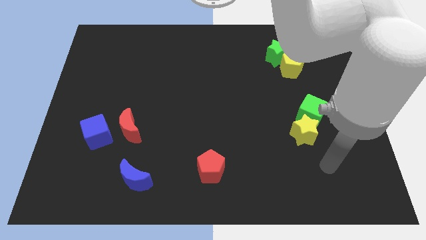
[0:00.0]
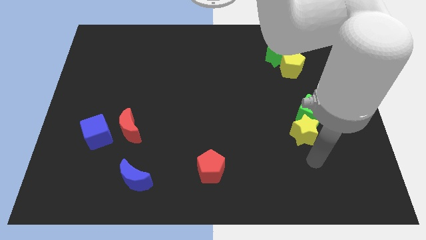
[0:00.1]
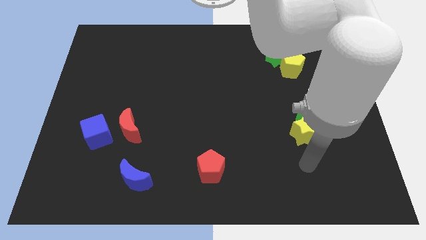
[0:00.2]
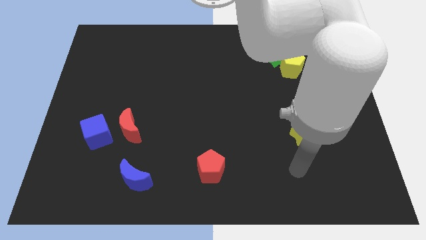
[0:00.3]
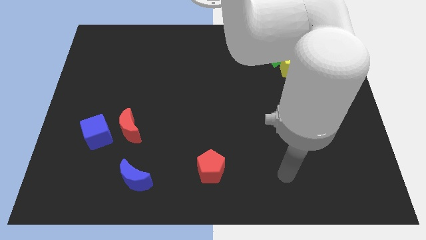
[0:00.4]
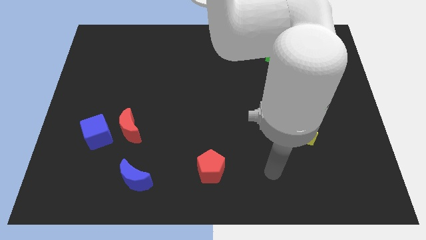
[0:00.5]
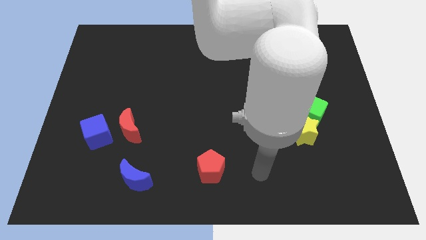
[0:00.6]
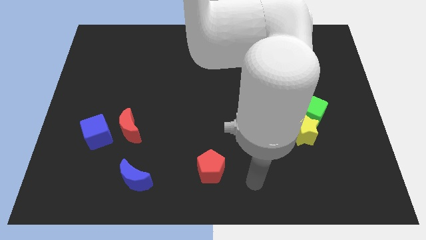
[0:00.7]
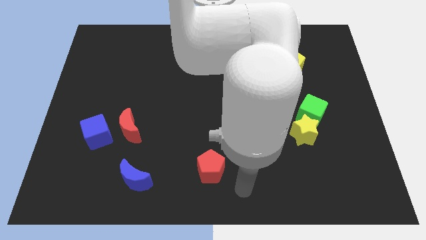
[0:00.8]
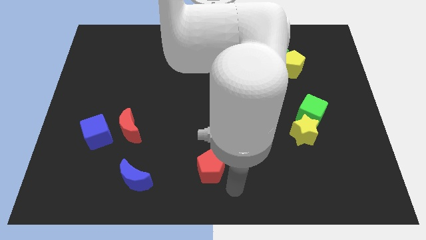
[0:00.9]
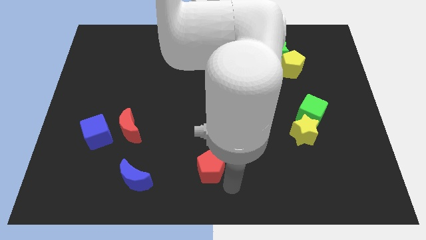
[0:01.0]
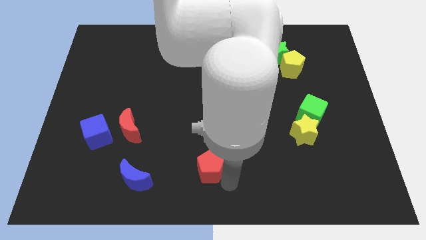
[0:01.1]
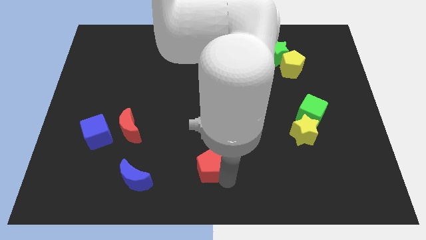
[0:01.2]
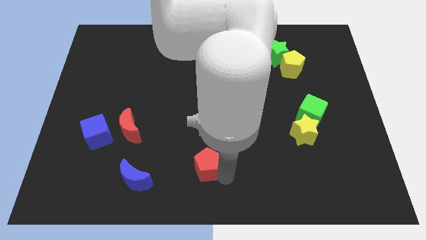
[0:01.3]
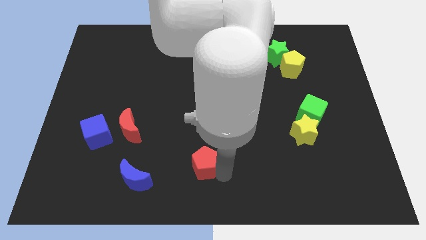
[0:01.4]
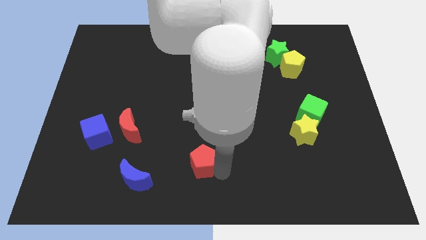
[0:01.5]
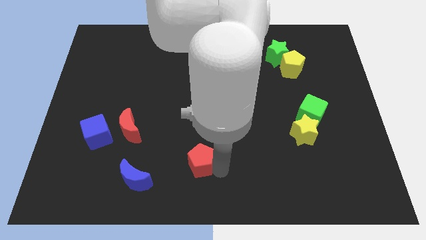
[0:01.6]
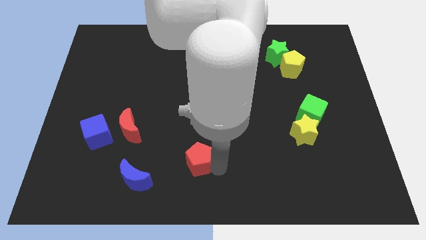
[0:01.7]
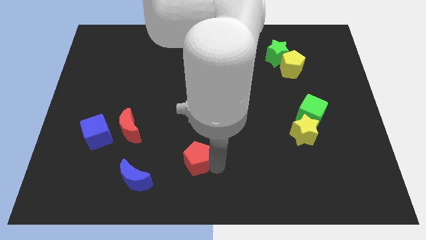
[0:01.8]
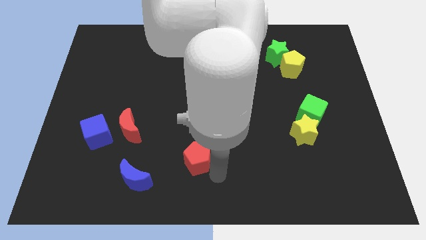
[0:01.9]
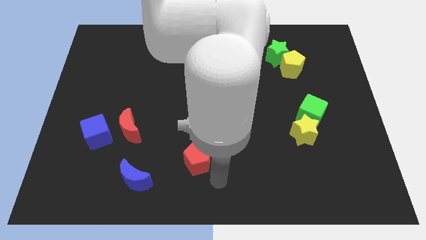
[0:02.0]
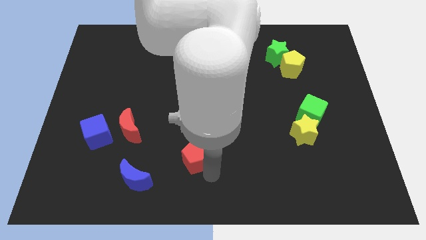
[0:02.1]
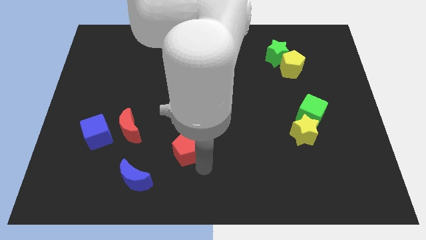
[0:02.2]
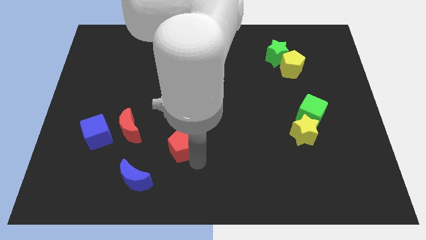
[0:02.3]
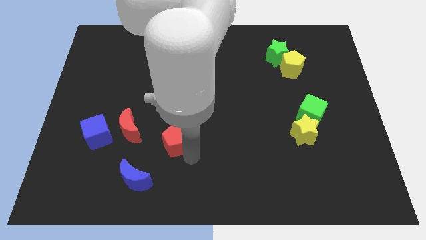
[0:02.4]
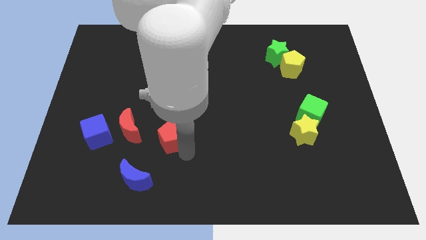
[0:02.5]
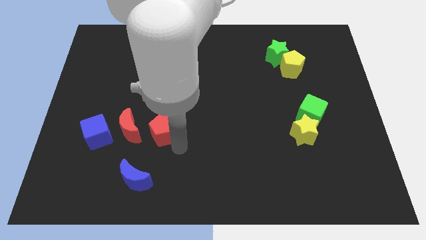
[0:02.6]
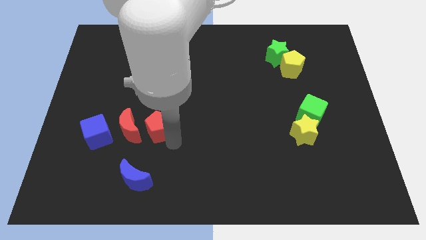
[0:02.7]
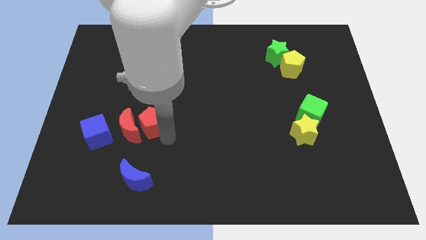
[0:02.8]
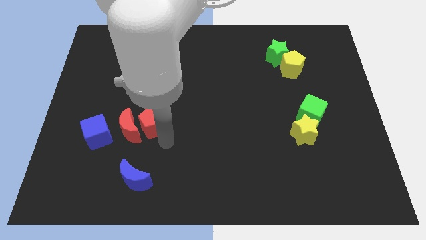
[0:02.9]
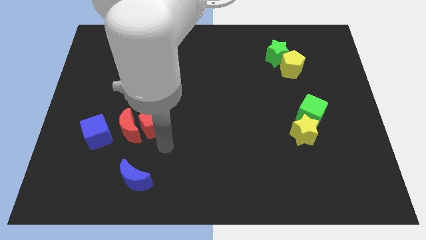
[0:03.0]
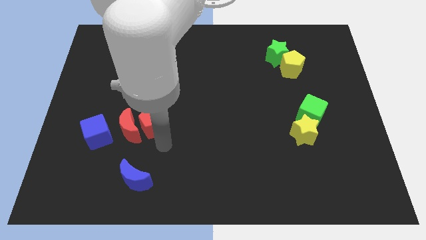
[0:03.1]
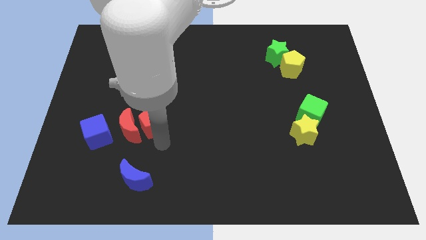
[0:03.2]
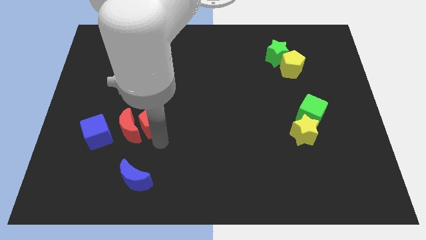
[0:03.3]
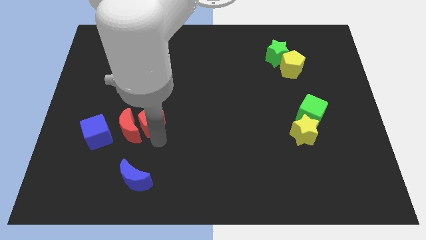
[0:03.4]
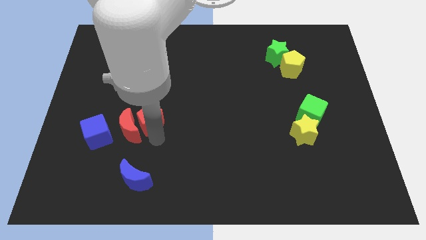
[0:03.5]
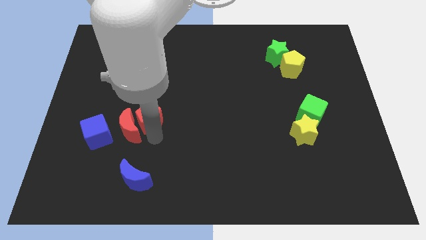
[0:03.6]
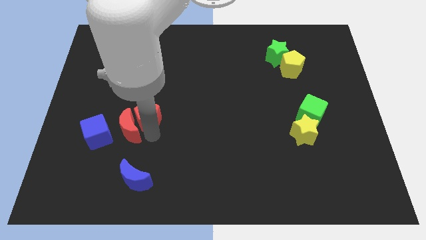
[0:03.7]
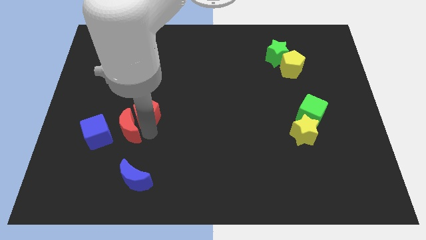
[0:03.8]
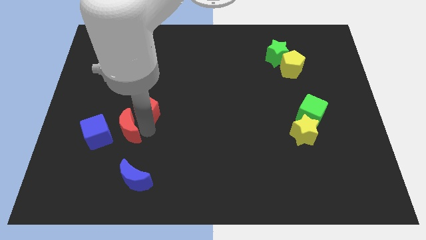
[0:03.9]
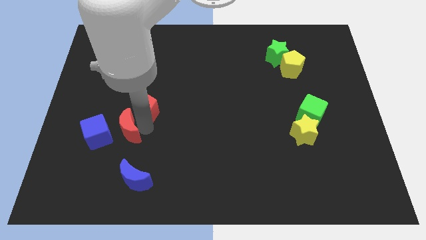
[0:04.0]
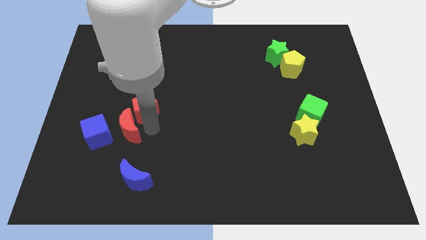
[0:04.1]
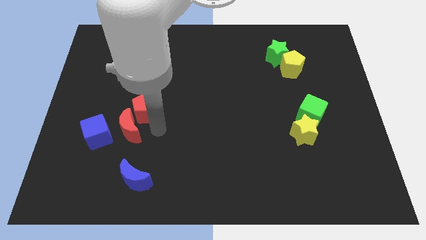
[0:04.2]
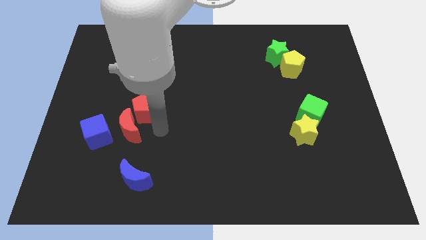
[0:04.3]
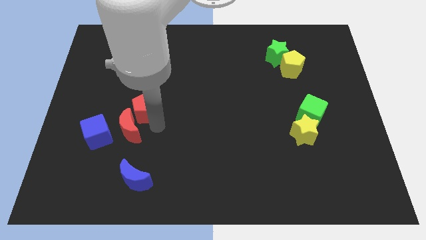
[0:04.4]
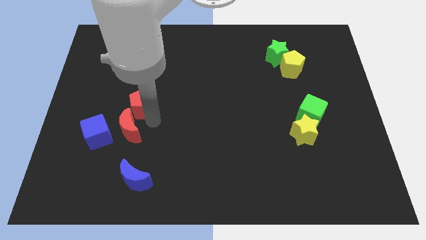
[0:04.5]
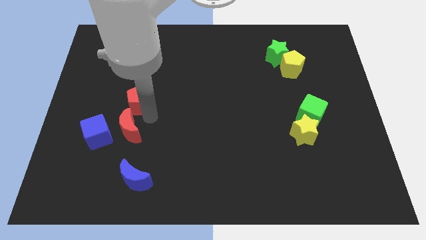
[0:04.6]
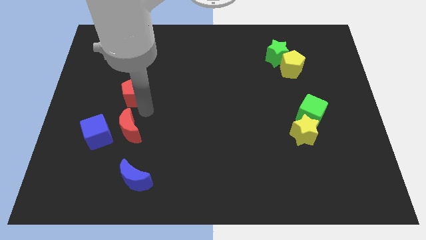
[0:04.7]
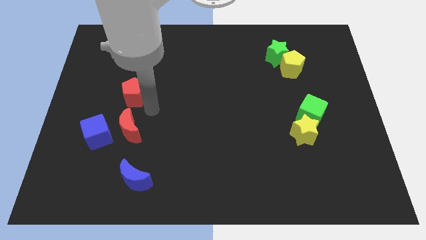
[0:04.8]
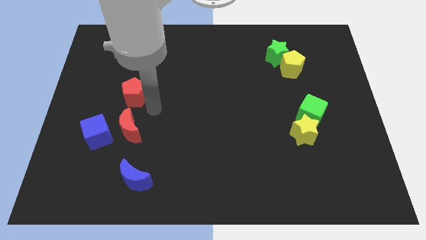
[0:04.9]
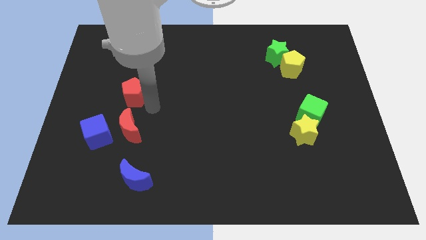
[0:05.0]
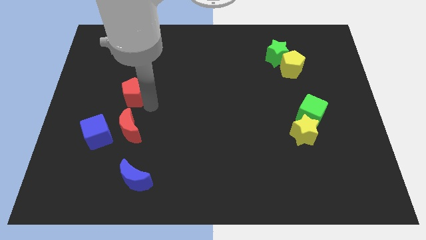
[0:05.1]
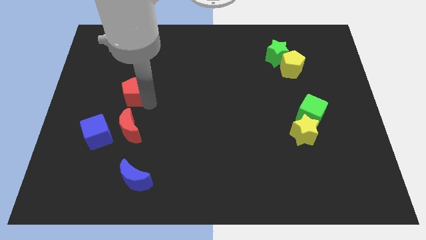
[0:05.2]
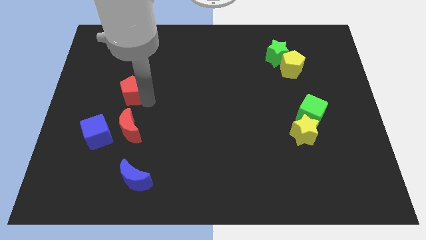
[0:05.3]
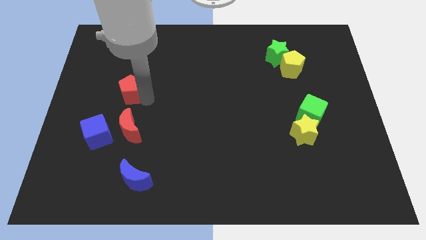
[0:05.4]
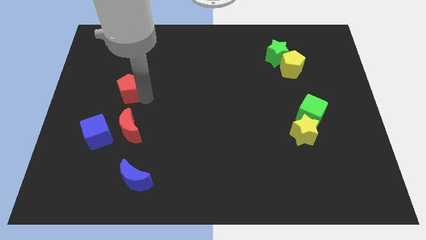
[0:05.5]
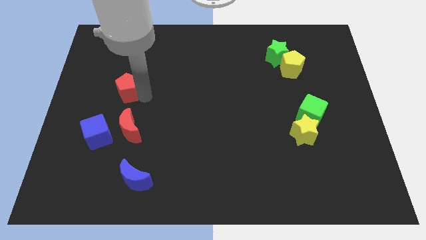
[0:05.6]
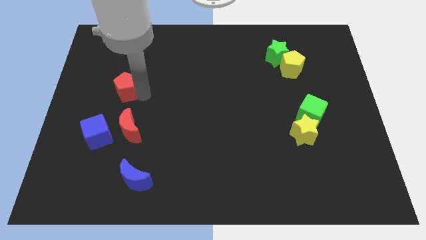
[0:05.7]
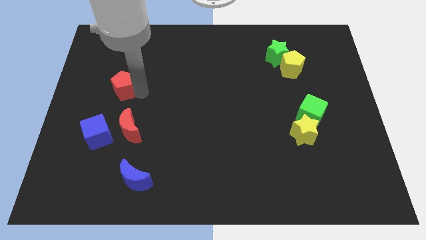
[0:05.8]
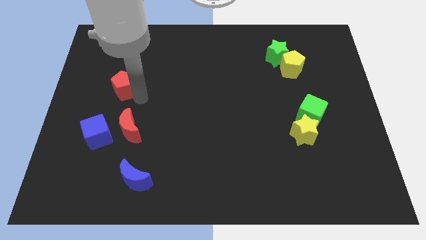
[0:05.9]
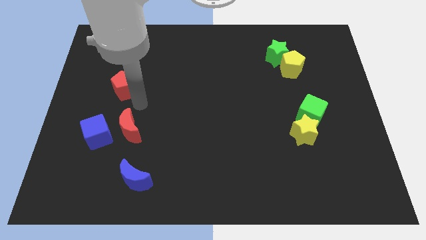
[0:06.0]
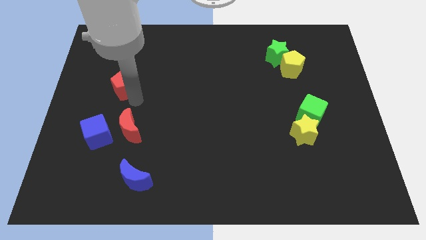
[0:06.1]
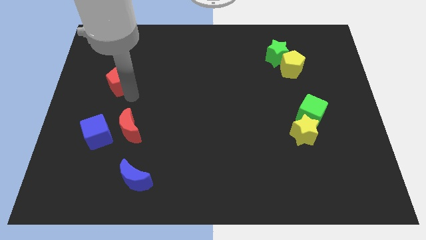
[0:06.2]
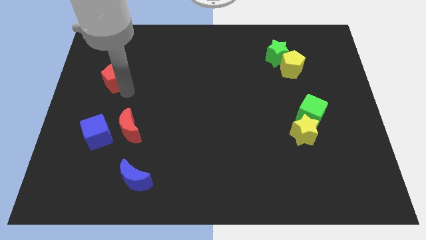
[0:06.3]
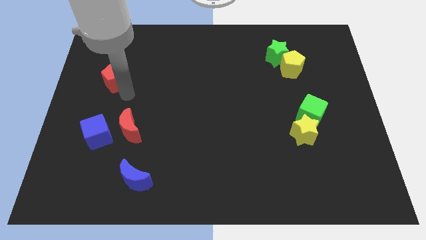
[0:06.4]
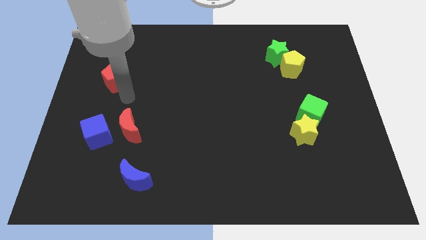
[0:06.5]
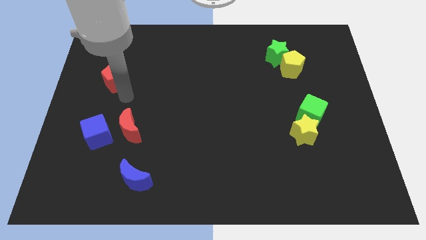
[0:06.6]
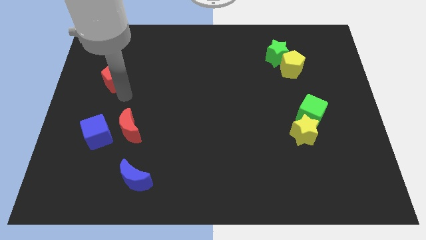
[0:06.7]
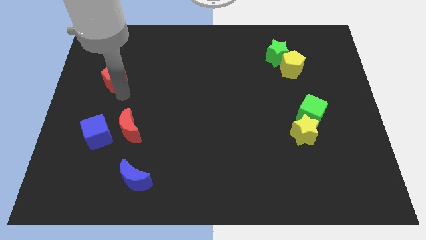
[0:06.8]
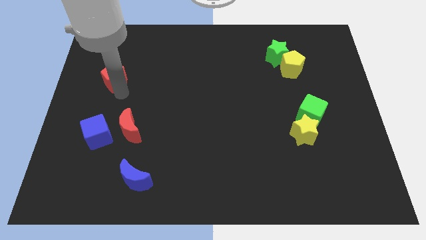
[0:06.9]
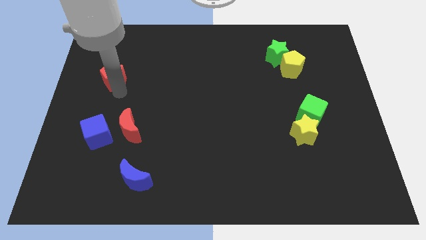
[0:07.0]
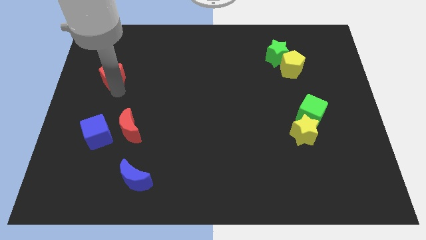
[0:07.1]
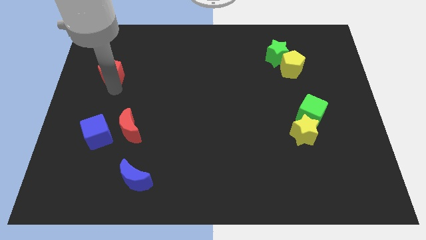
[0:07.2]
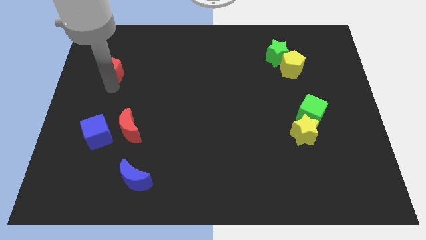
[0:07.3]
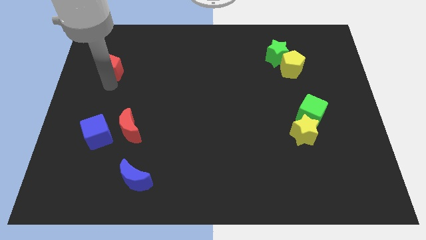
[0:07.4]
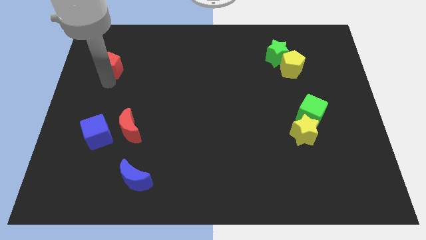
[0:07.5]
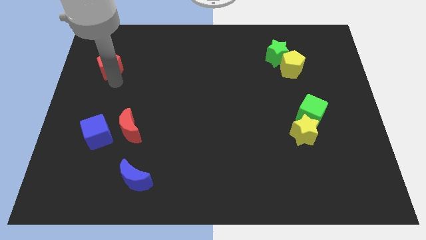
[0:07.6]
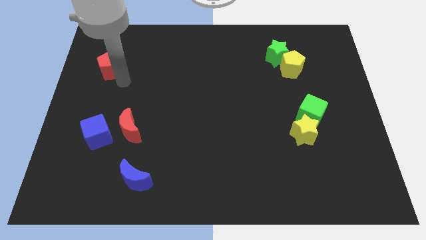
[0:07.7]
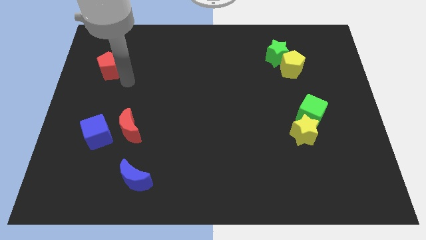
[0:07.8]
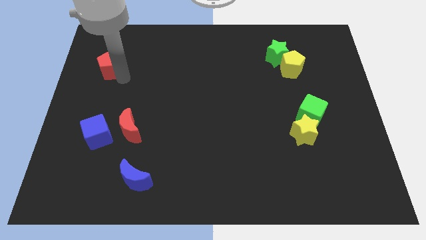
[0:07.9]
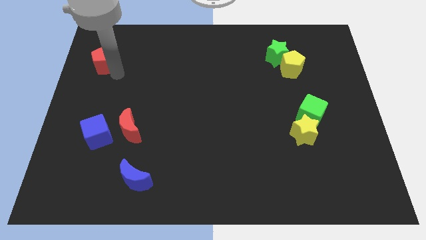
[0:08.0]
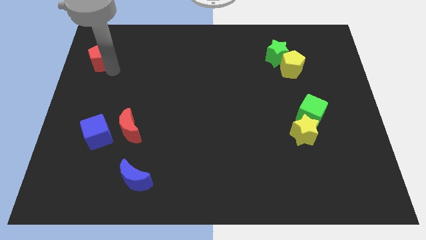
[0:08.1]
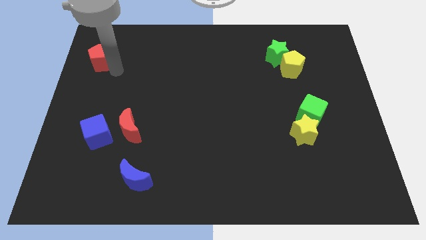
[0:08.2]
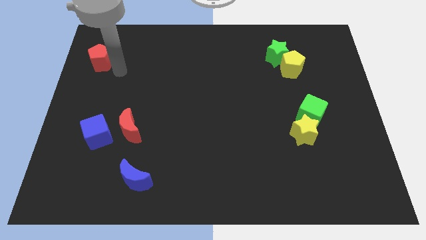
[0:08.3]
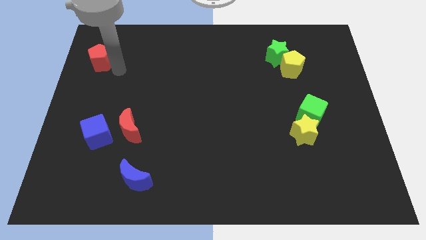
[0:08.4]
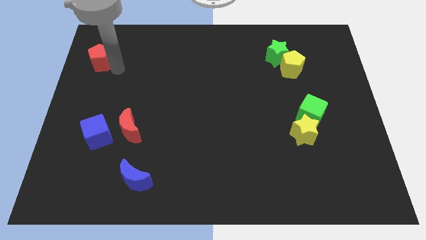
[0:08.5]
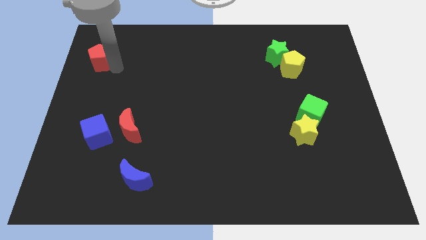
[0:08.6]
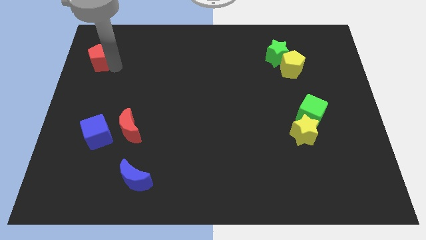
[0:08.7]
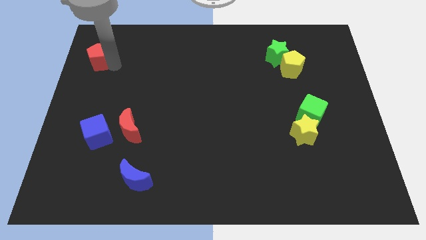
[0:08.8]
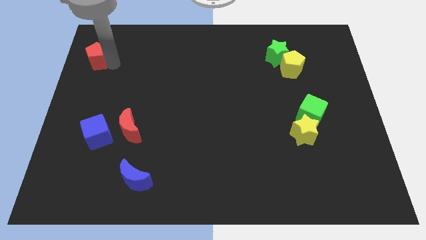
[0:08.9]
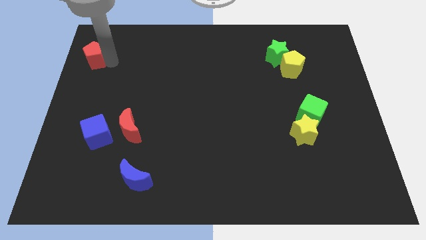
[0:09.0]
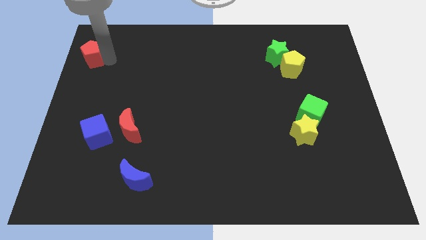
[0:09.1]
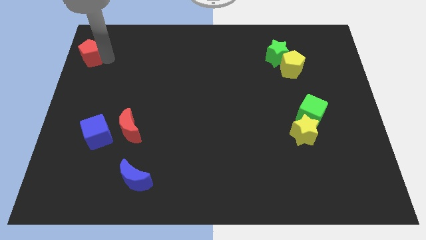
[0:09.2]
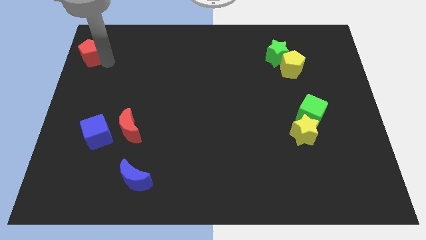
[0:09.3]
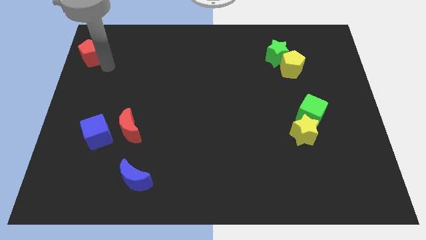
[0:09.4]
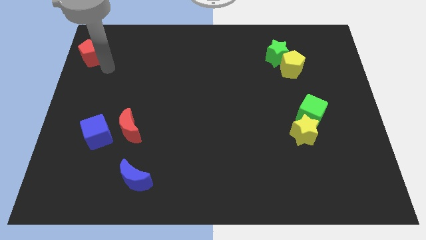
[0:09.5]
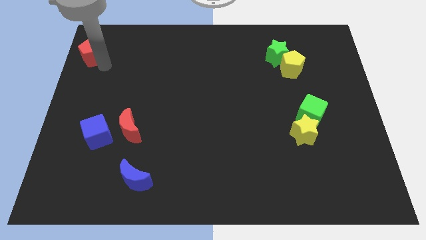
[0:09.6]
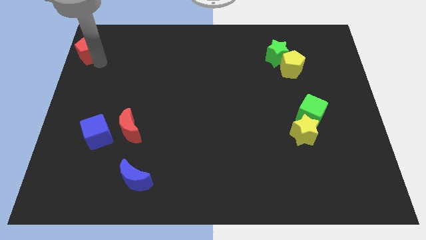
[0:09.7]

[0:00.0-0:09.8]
put the red pentagon to the top left of the board
